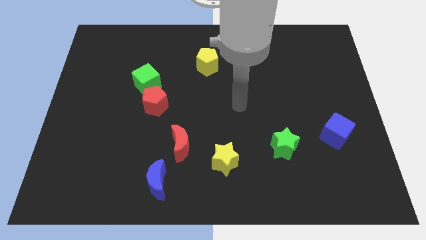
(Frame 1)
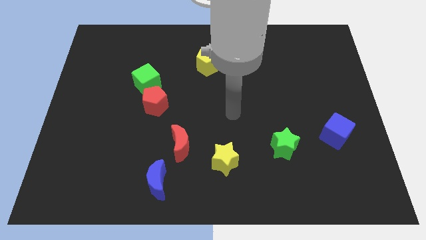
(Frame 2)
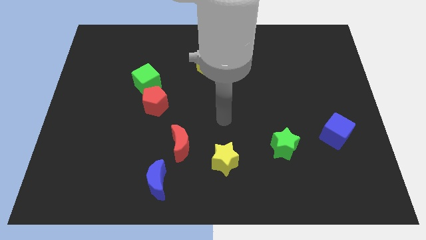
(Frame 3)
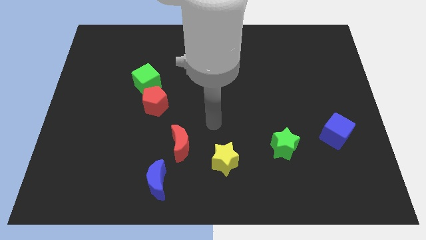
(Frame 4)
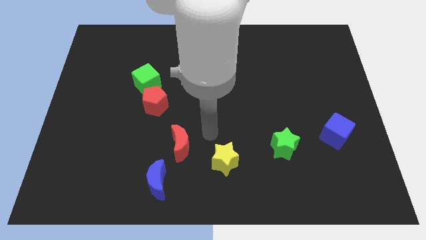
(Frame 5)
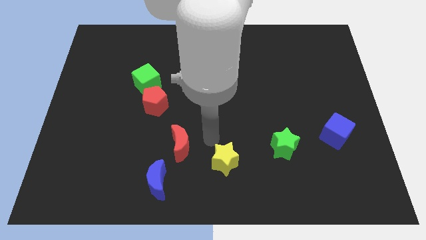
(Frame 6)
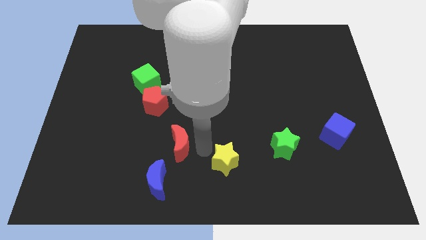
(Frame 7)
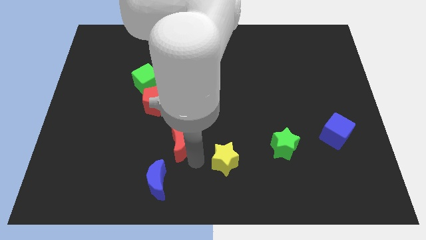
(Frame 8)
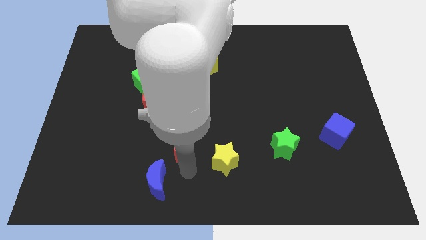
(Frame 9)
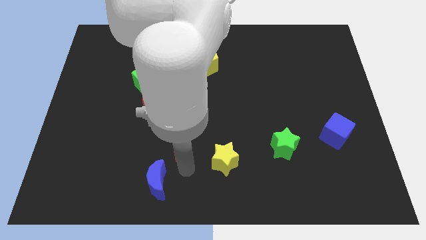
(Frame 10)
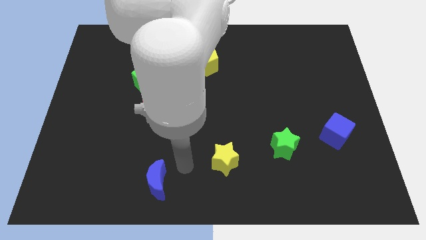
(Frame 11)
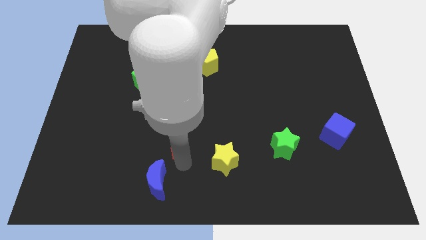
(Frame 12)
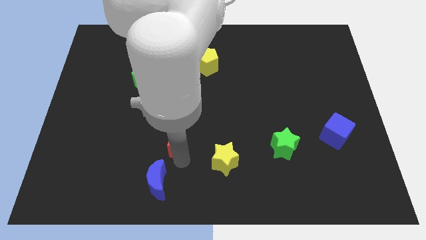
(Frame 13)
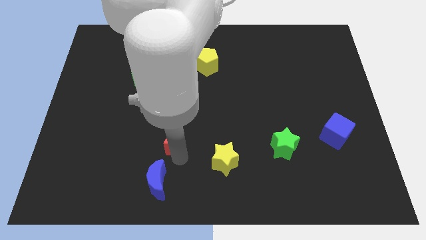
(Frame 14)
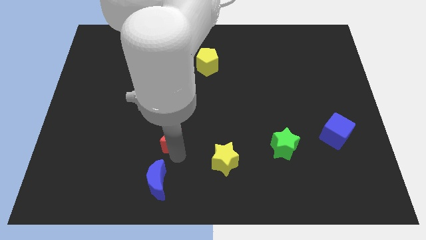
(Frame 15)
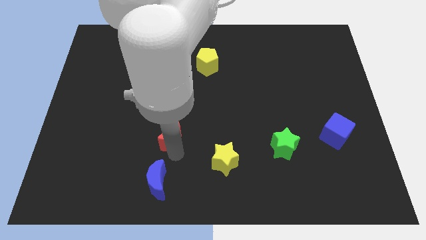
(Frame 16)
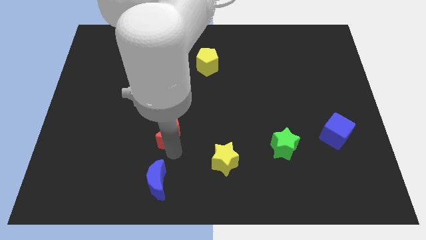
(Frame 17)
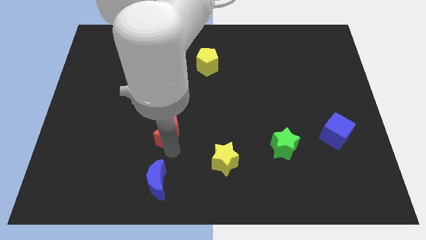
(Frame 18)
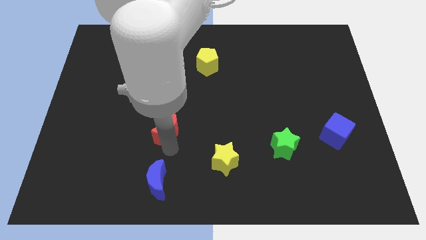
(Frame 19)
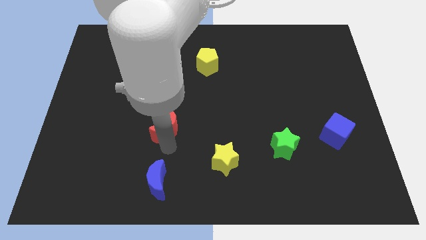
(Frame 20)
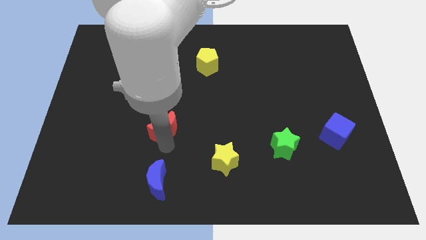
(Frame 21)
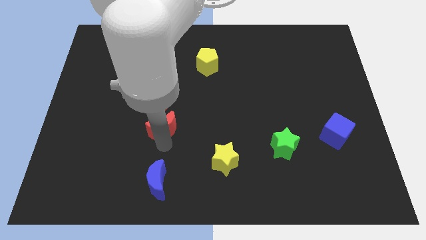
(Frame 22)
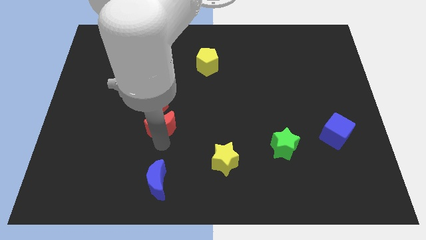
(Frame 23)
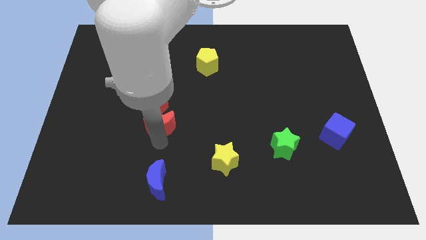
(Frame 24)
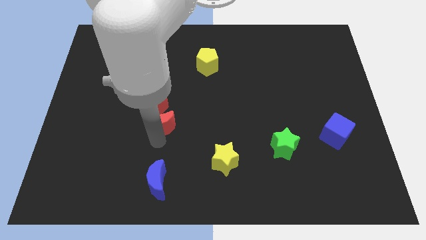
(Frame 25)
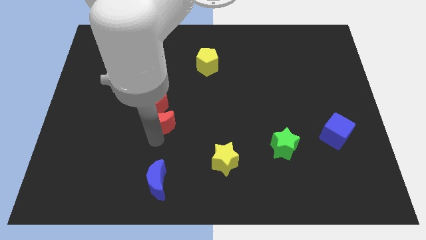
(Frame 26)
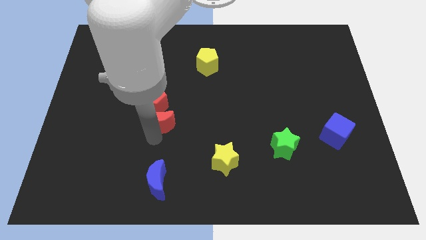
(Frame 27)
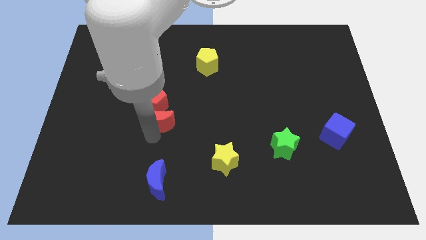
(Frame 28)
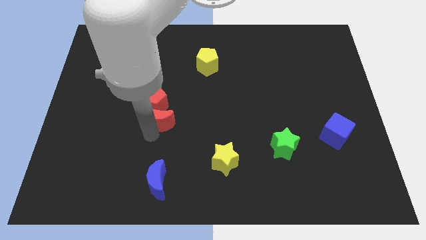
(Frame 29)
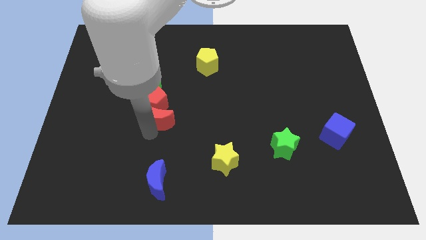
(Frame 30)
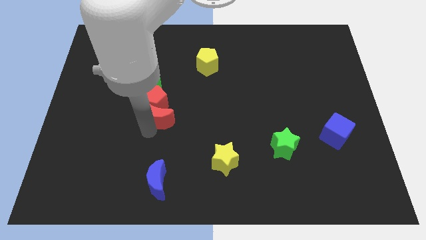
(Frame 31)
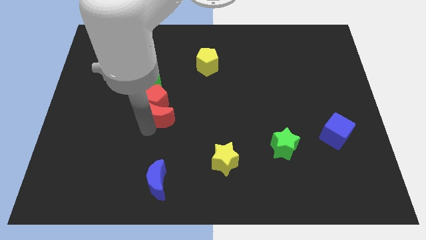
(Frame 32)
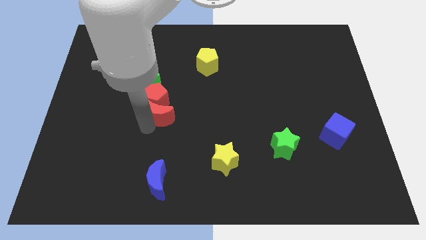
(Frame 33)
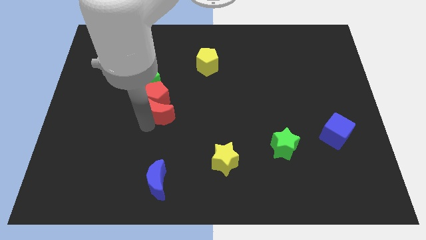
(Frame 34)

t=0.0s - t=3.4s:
slide the red moon upwards slightly

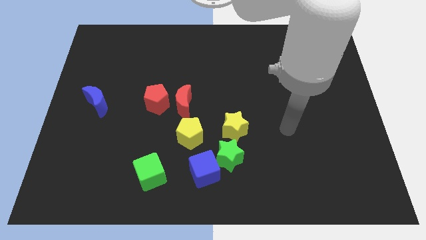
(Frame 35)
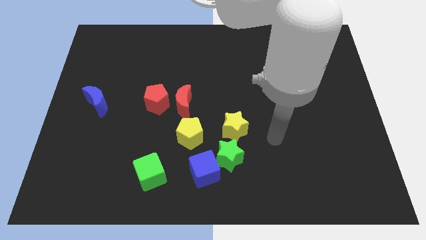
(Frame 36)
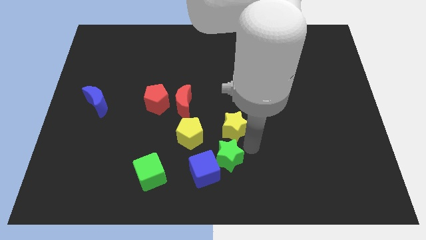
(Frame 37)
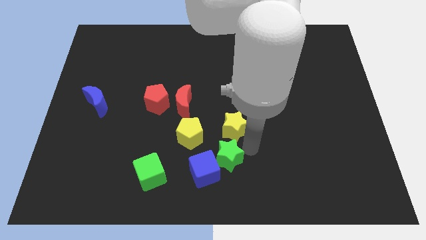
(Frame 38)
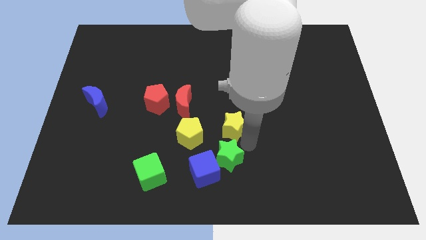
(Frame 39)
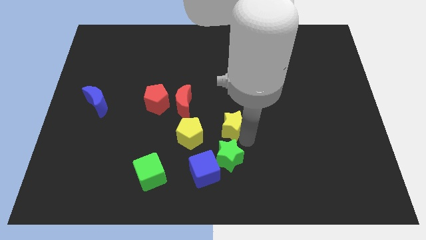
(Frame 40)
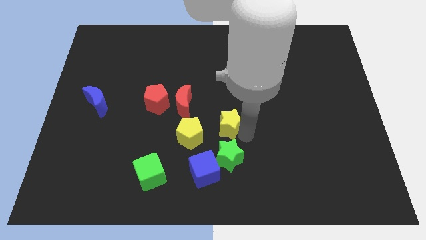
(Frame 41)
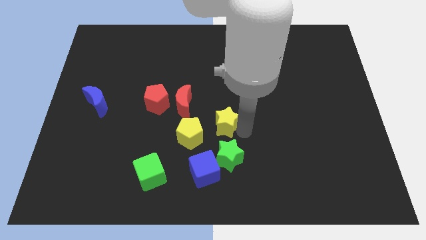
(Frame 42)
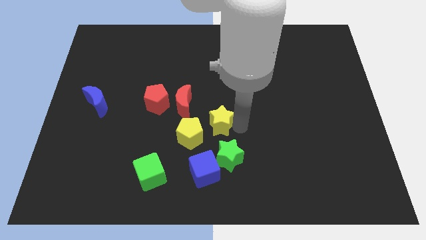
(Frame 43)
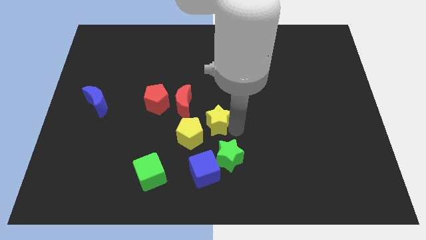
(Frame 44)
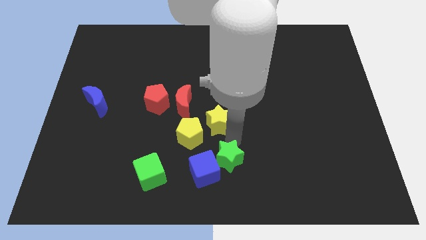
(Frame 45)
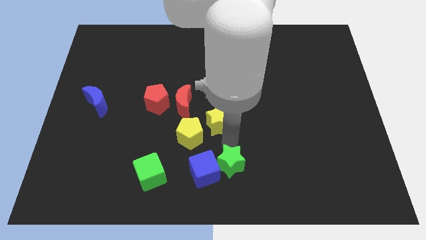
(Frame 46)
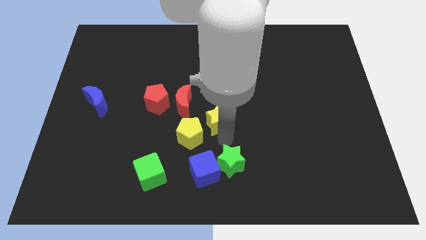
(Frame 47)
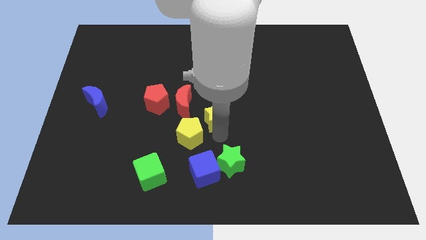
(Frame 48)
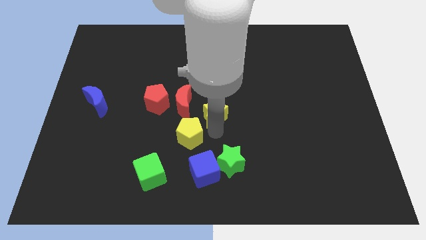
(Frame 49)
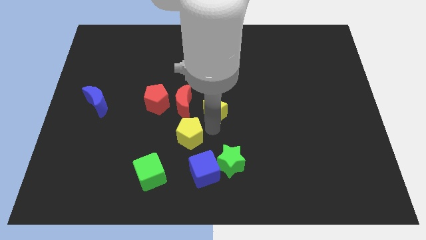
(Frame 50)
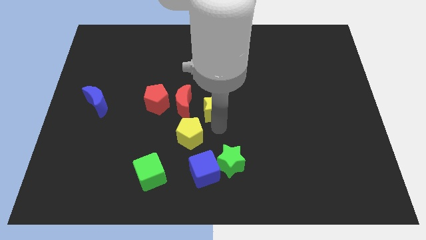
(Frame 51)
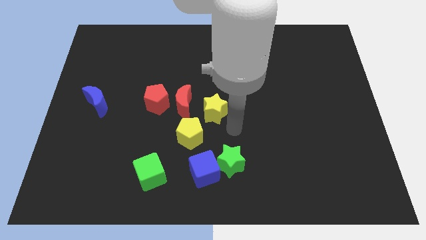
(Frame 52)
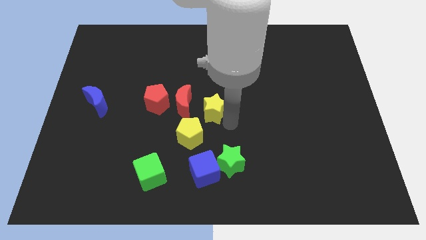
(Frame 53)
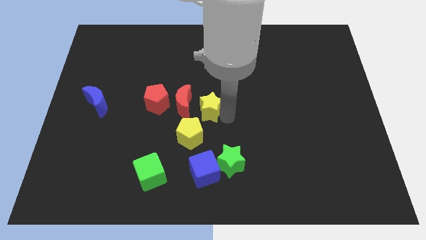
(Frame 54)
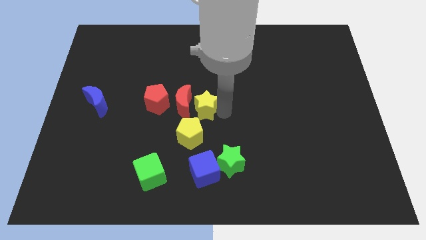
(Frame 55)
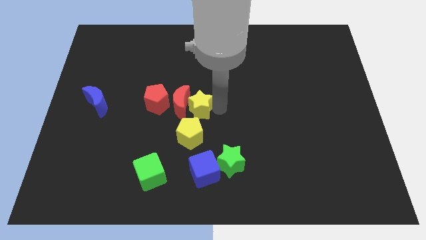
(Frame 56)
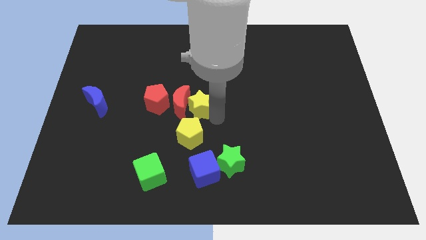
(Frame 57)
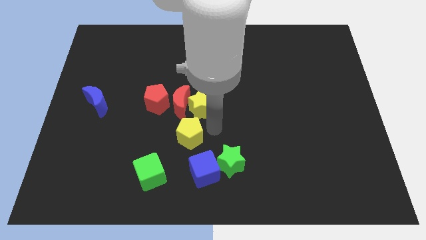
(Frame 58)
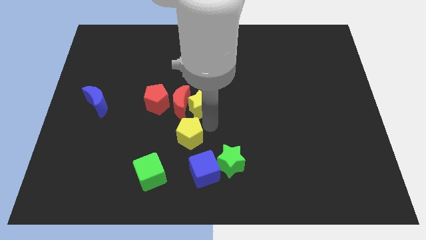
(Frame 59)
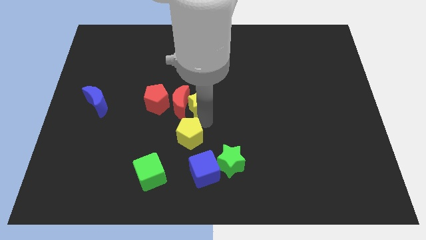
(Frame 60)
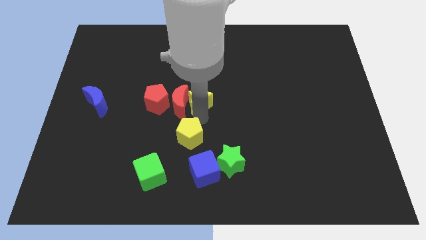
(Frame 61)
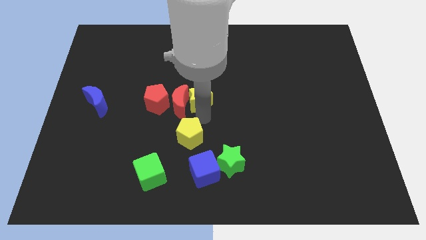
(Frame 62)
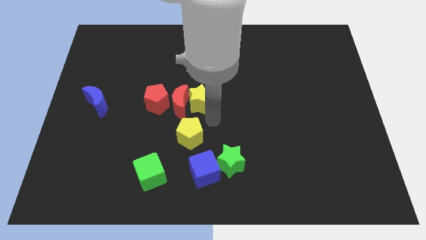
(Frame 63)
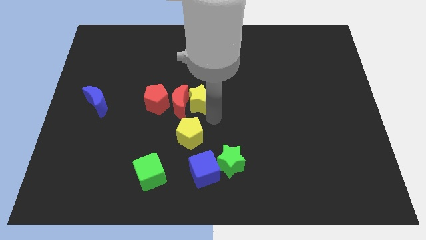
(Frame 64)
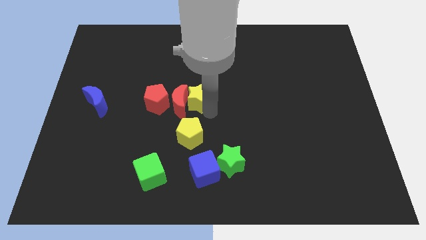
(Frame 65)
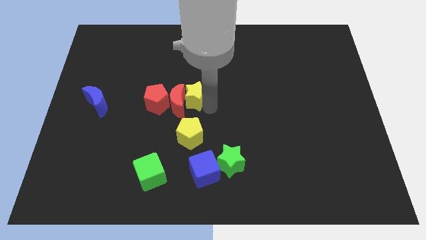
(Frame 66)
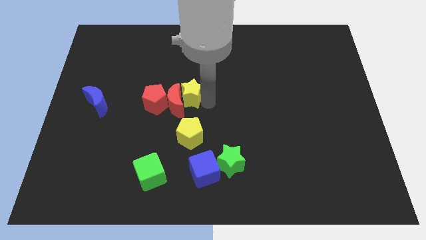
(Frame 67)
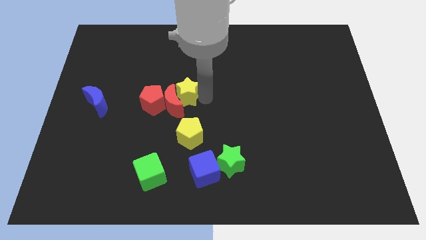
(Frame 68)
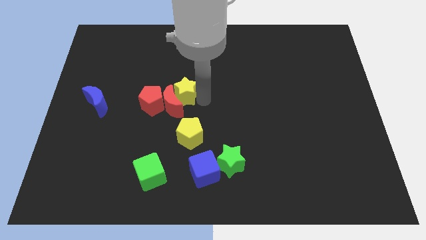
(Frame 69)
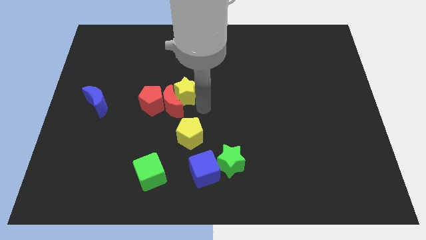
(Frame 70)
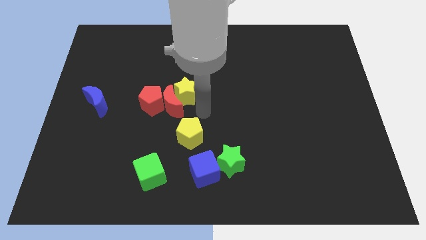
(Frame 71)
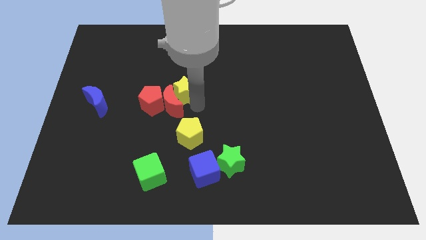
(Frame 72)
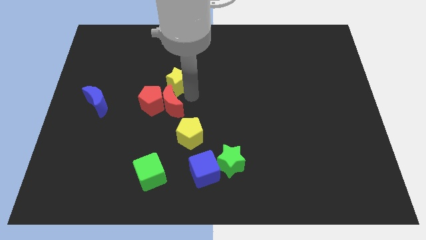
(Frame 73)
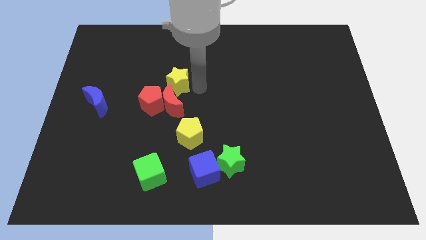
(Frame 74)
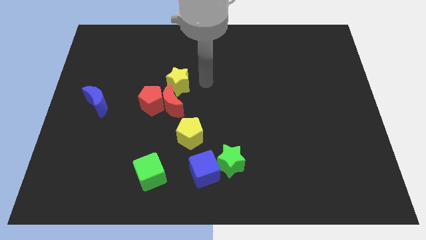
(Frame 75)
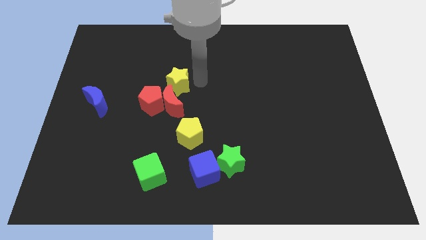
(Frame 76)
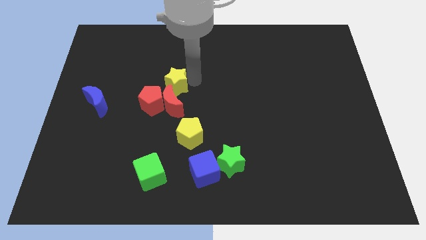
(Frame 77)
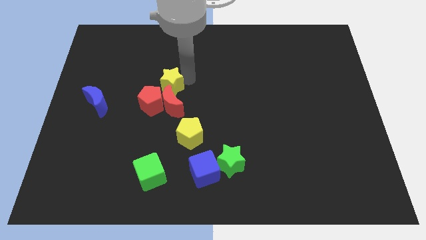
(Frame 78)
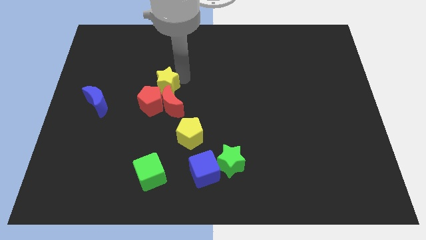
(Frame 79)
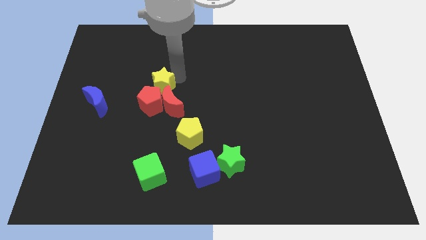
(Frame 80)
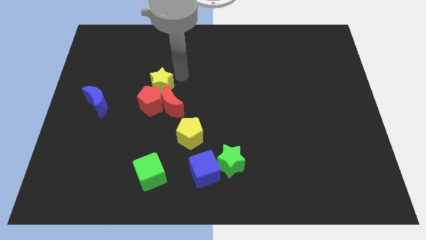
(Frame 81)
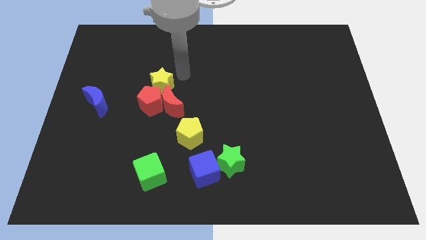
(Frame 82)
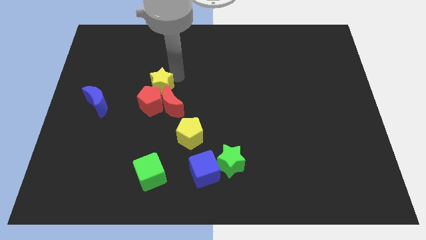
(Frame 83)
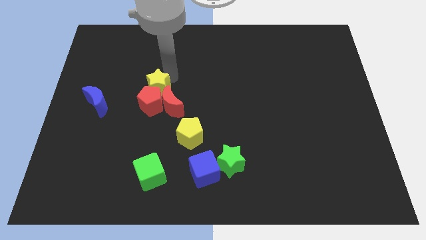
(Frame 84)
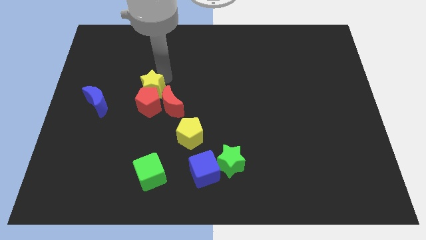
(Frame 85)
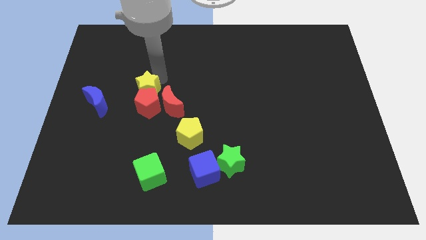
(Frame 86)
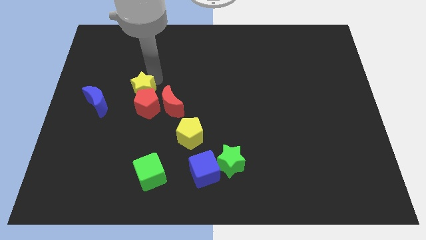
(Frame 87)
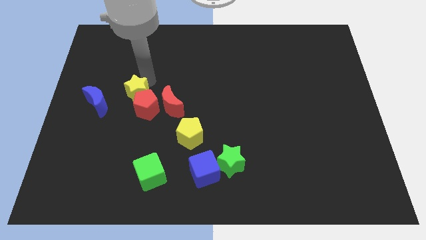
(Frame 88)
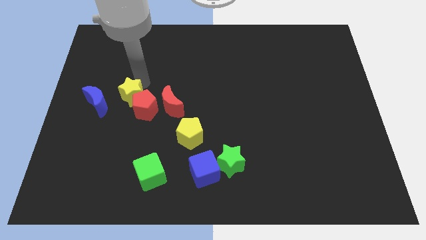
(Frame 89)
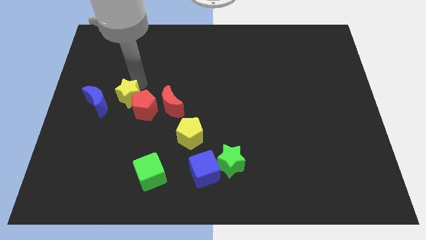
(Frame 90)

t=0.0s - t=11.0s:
move the yellow star left
